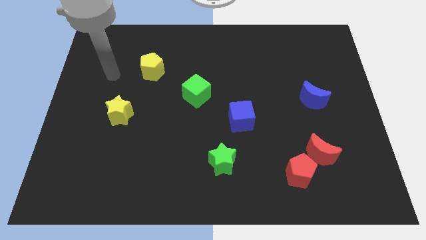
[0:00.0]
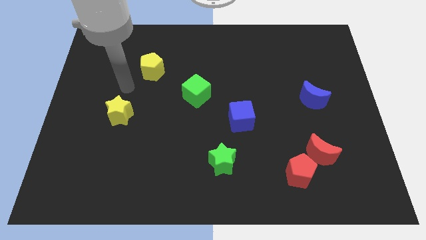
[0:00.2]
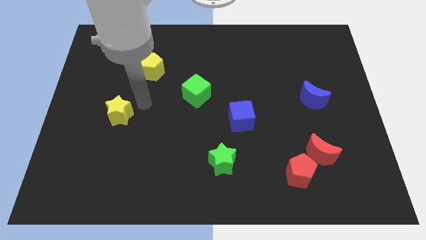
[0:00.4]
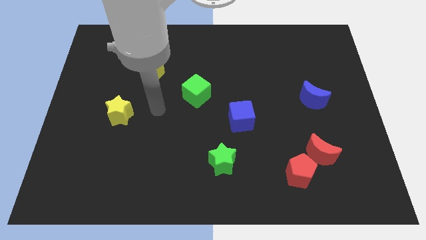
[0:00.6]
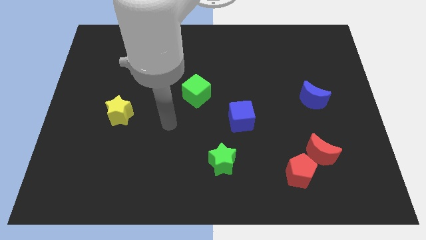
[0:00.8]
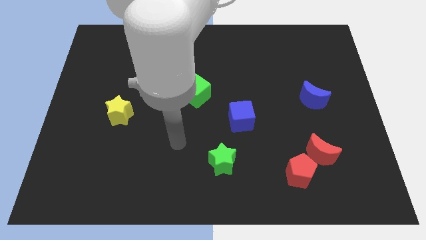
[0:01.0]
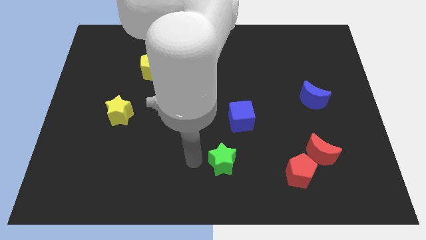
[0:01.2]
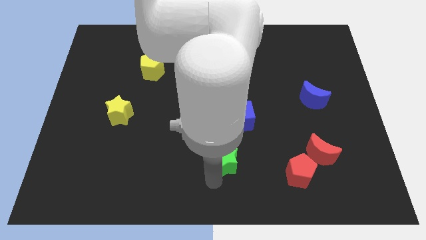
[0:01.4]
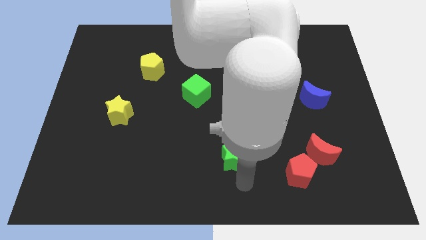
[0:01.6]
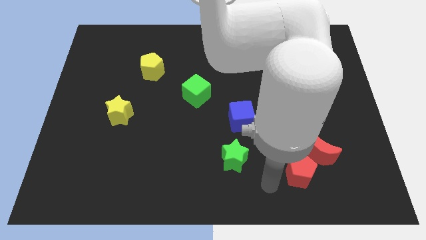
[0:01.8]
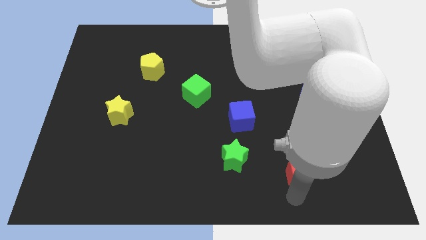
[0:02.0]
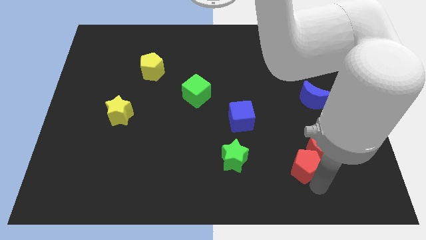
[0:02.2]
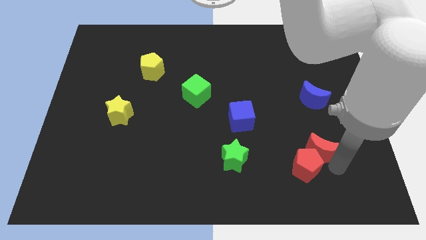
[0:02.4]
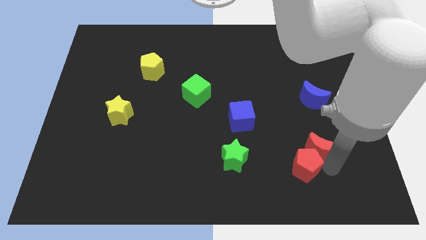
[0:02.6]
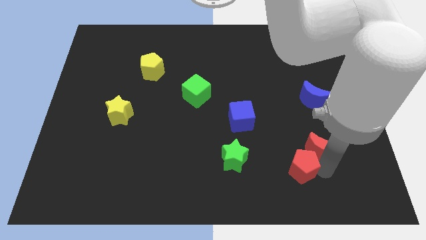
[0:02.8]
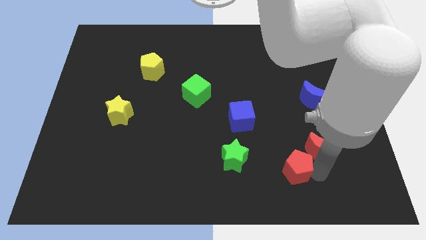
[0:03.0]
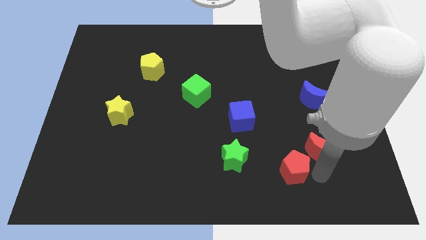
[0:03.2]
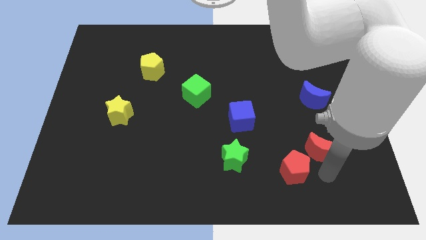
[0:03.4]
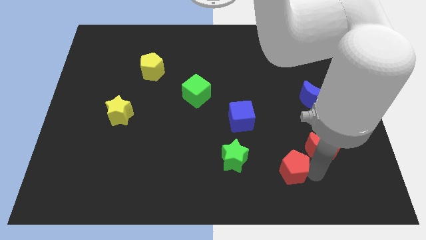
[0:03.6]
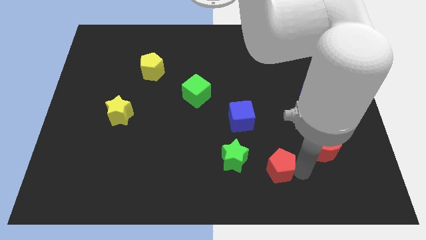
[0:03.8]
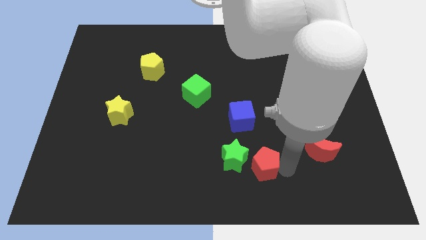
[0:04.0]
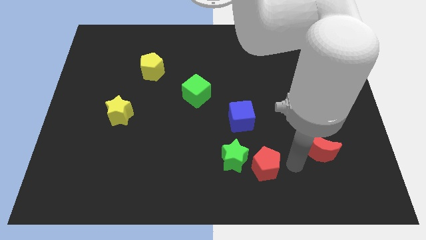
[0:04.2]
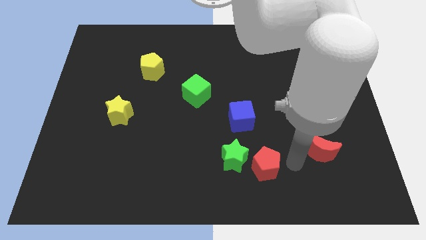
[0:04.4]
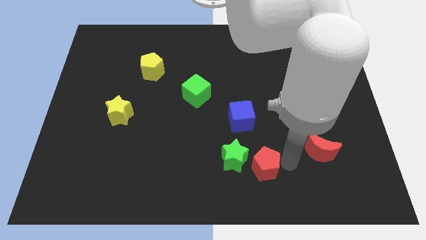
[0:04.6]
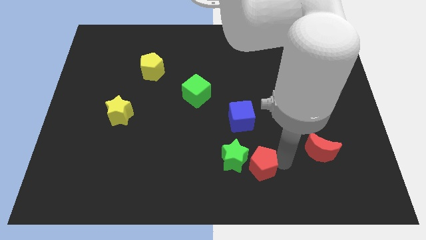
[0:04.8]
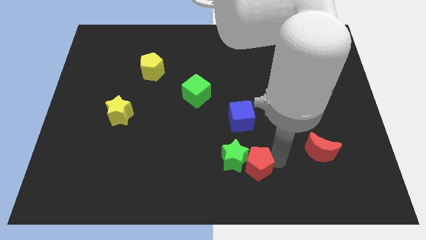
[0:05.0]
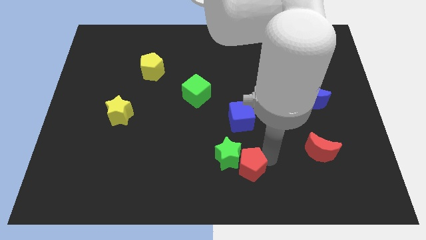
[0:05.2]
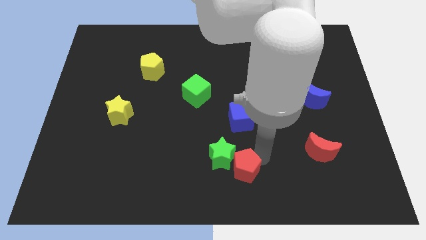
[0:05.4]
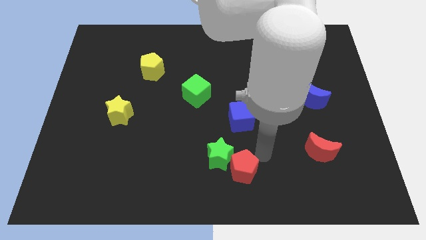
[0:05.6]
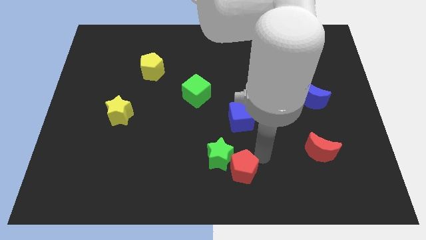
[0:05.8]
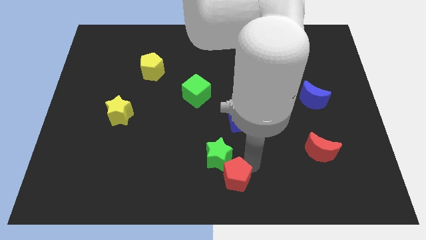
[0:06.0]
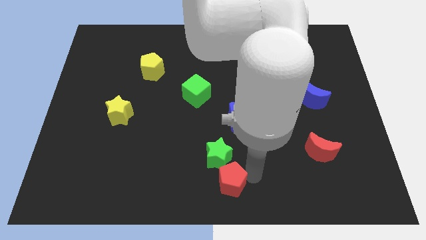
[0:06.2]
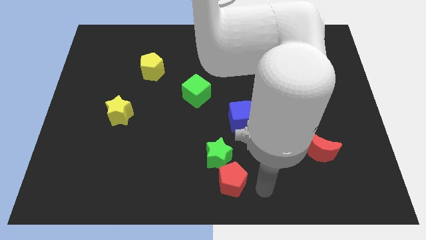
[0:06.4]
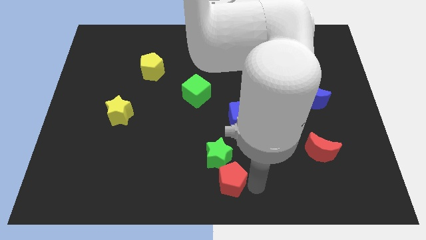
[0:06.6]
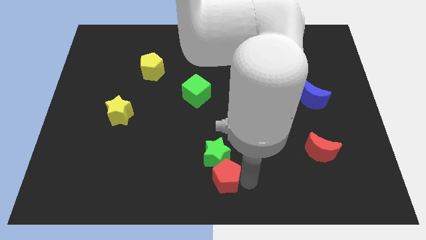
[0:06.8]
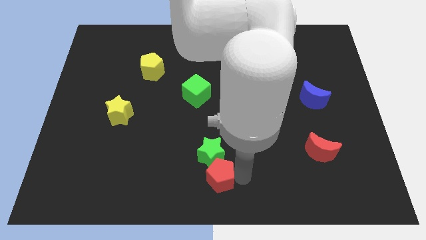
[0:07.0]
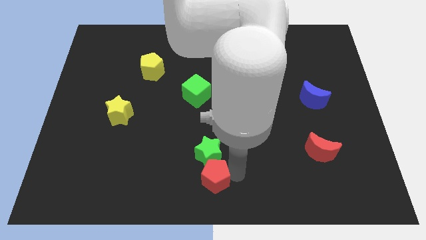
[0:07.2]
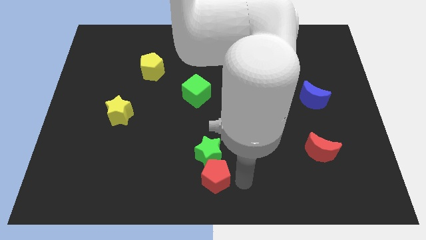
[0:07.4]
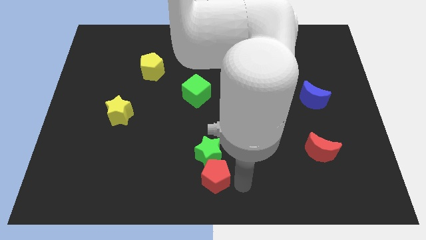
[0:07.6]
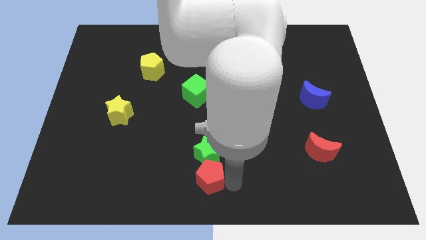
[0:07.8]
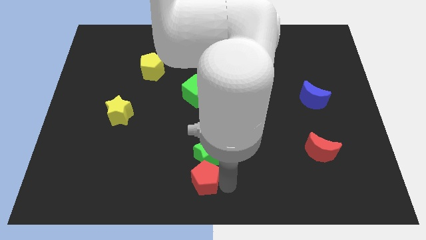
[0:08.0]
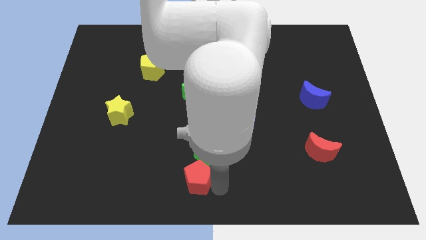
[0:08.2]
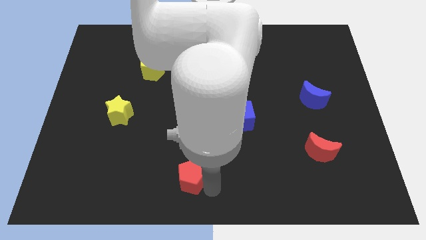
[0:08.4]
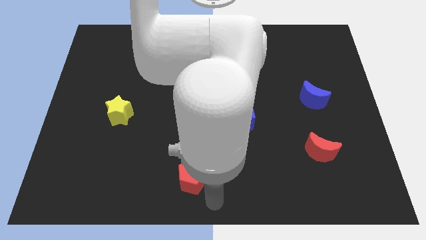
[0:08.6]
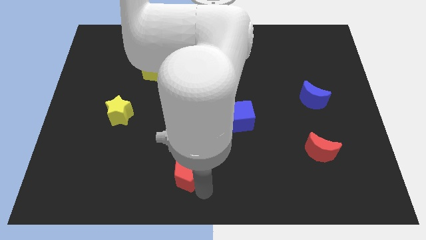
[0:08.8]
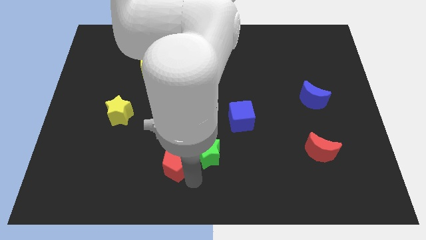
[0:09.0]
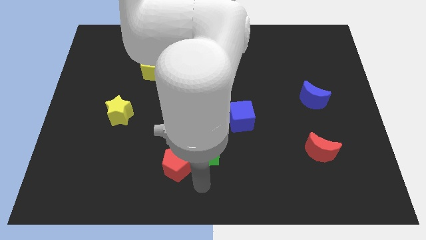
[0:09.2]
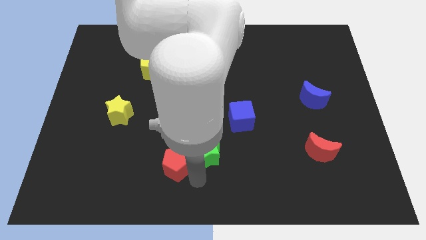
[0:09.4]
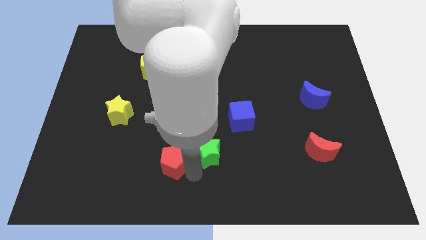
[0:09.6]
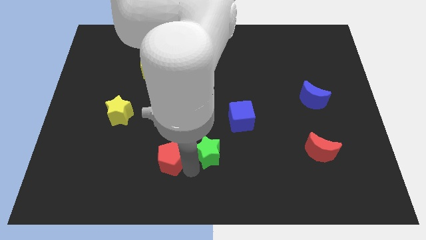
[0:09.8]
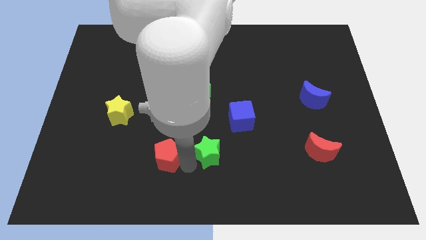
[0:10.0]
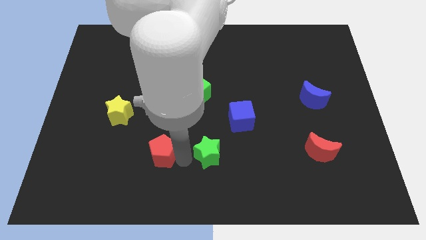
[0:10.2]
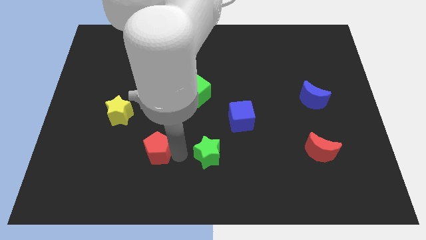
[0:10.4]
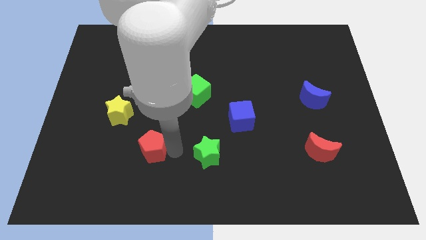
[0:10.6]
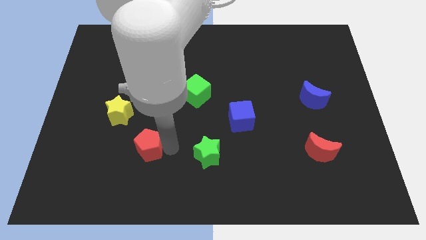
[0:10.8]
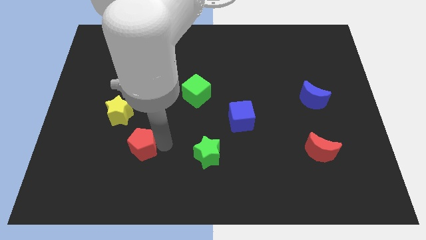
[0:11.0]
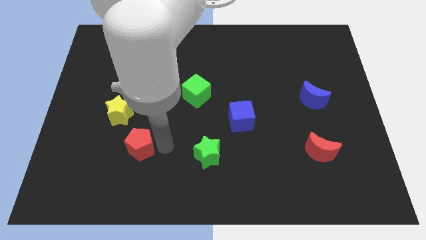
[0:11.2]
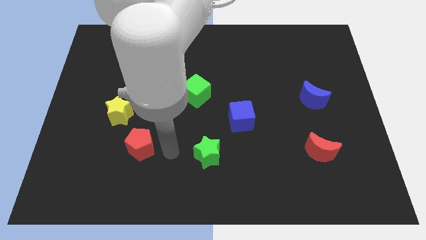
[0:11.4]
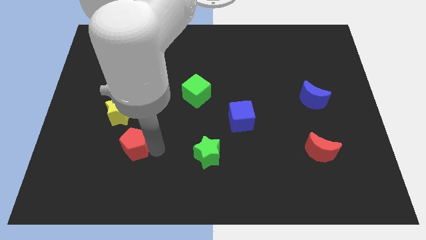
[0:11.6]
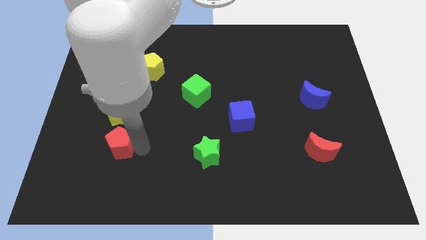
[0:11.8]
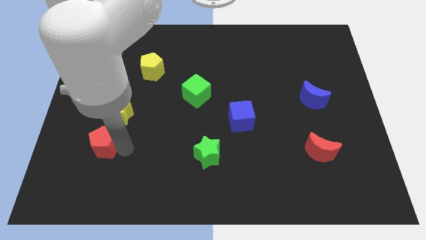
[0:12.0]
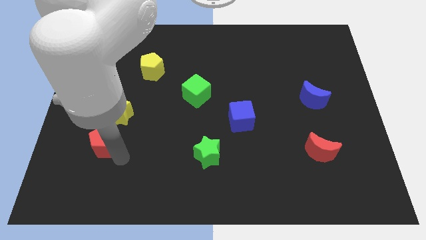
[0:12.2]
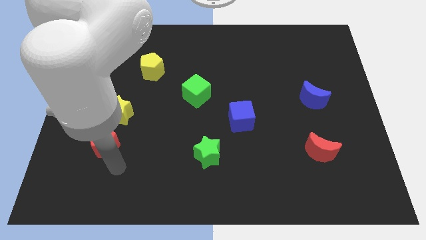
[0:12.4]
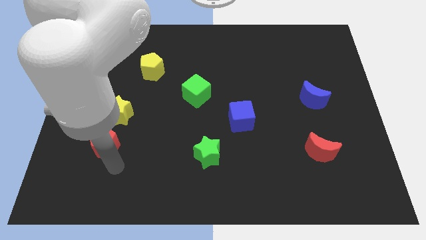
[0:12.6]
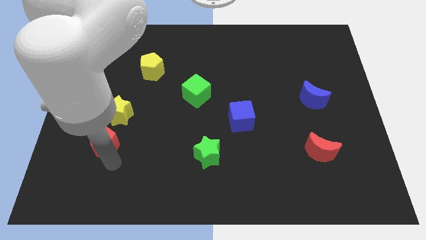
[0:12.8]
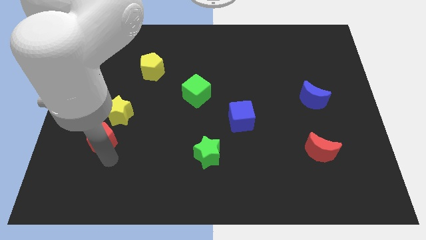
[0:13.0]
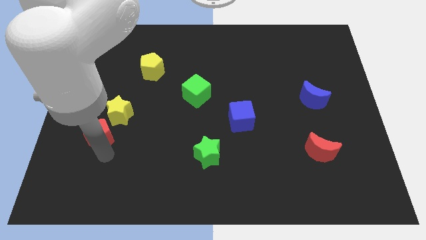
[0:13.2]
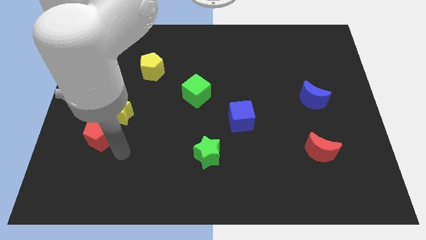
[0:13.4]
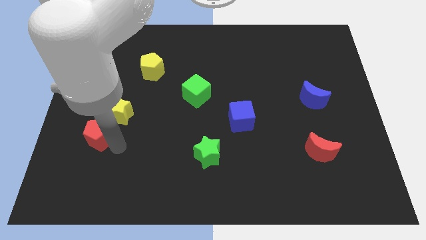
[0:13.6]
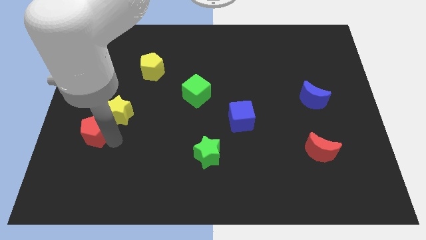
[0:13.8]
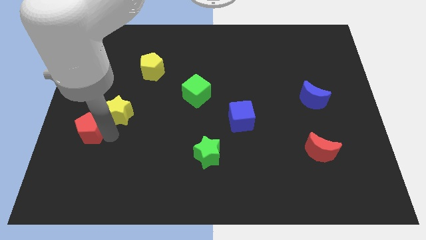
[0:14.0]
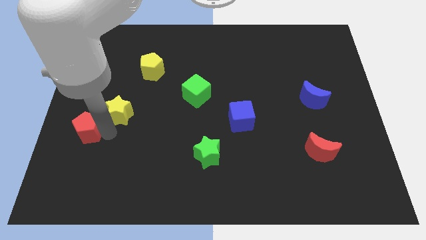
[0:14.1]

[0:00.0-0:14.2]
slide the red pentagon to the left side of the board
